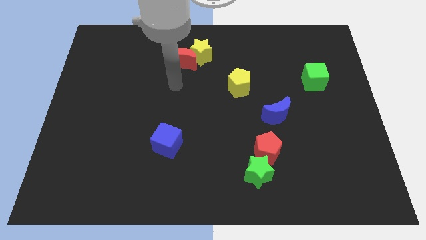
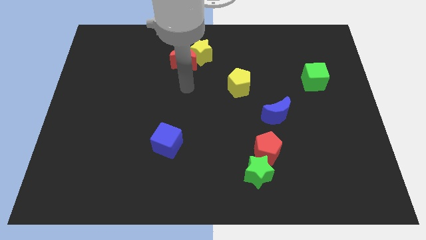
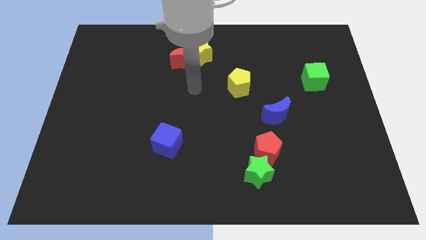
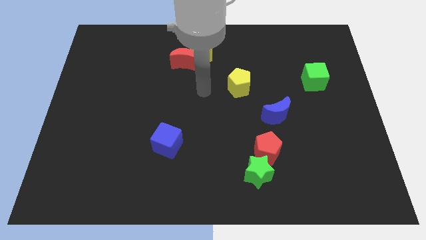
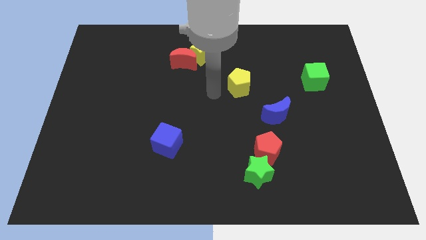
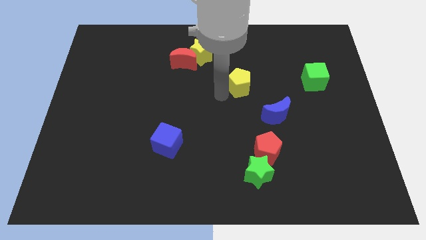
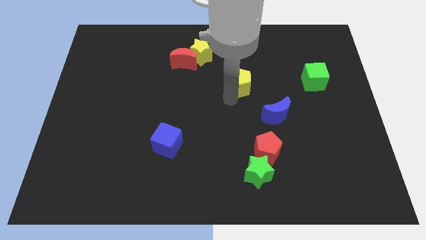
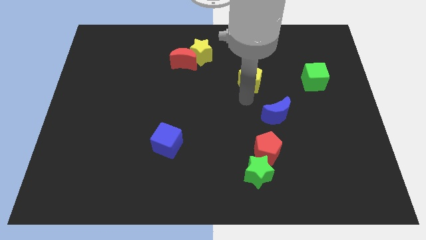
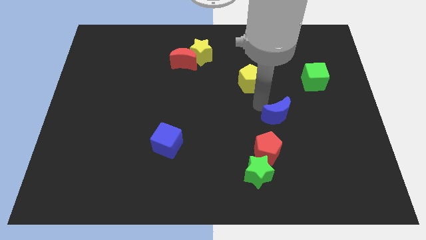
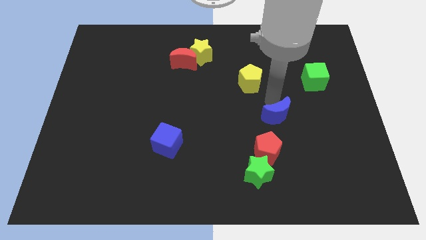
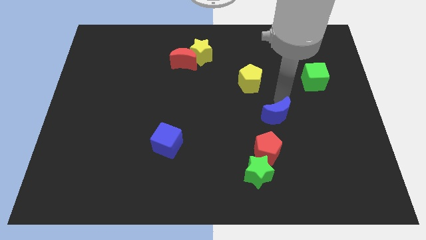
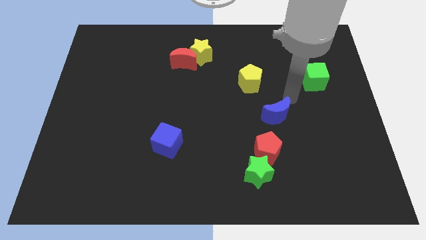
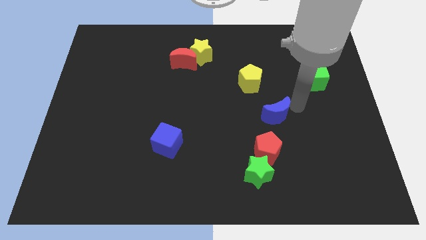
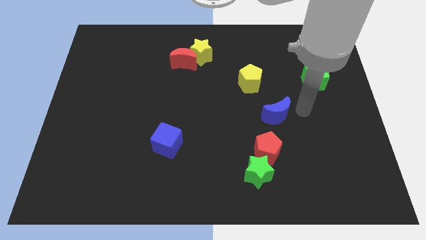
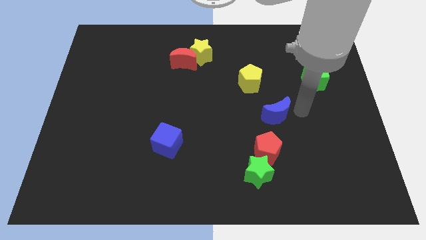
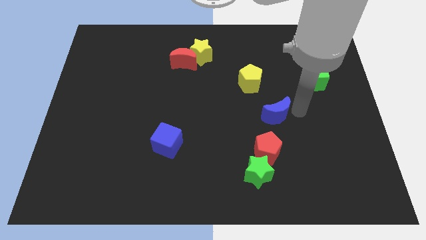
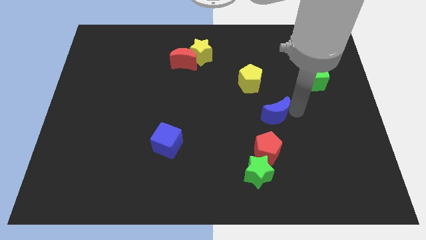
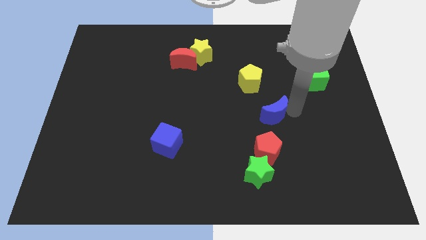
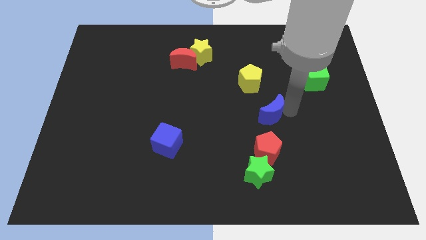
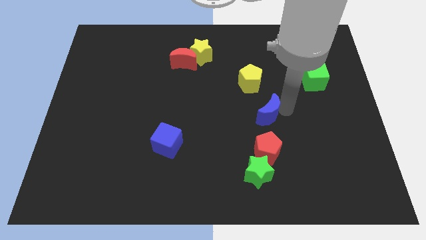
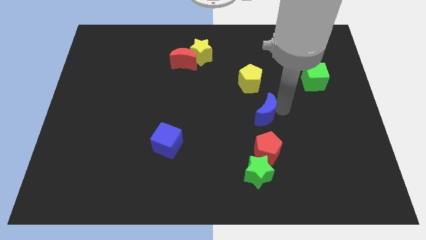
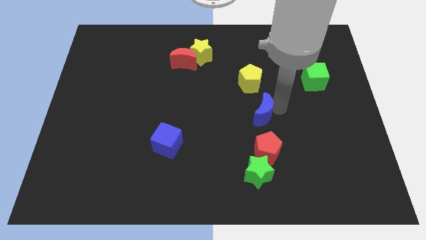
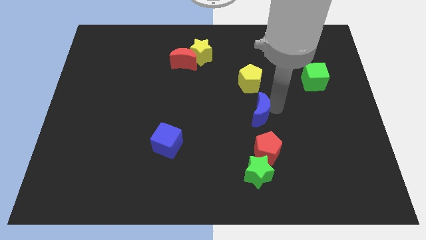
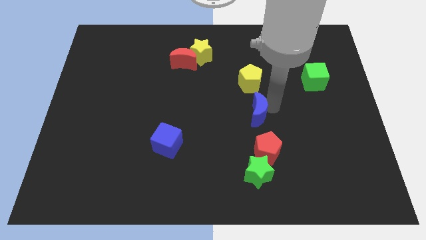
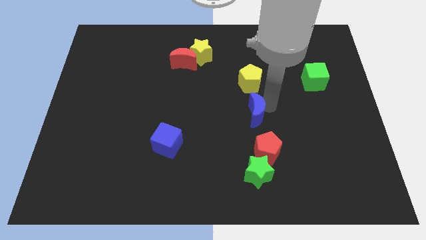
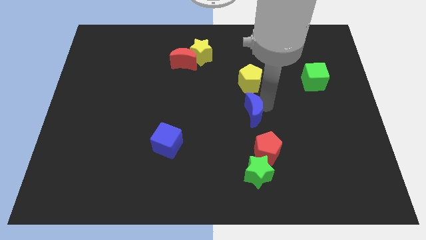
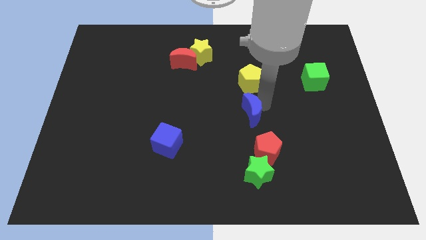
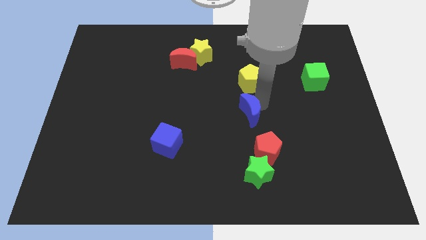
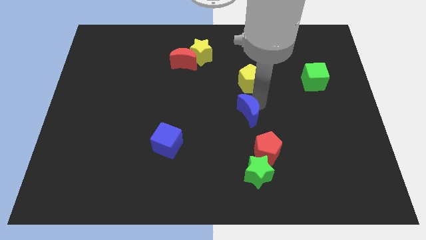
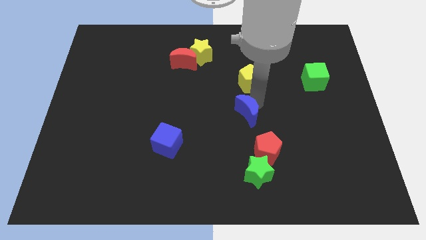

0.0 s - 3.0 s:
slide the blue moon a little to the left

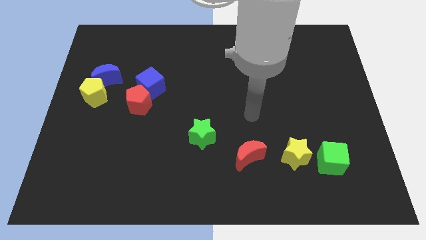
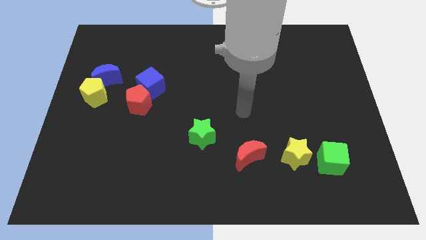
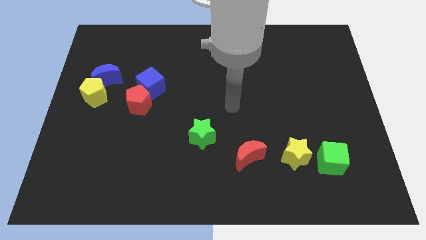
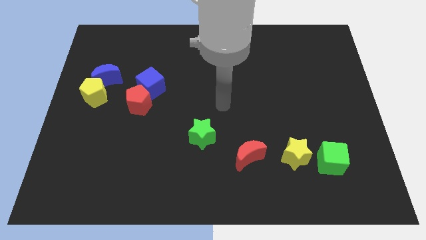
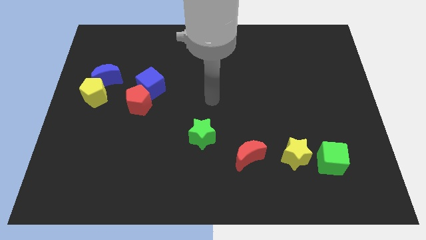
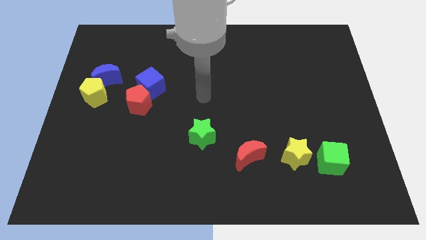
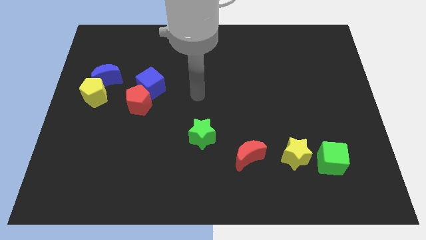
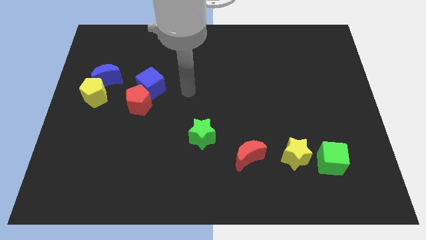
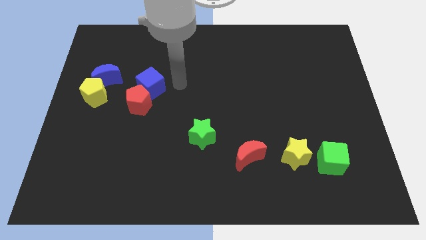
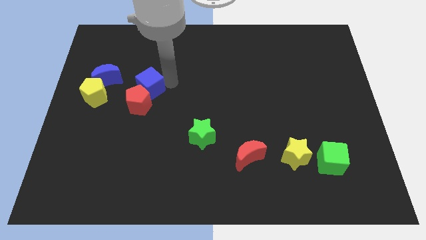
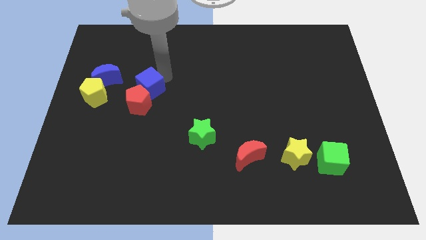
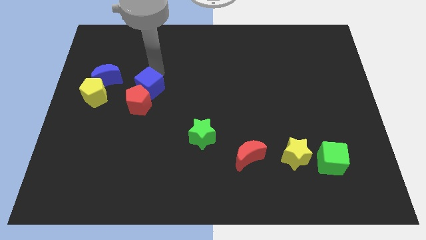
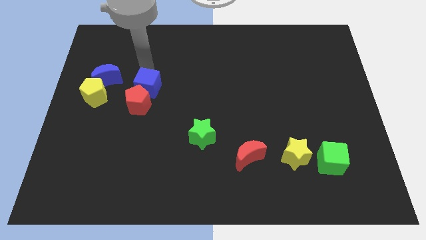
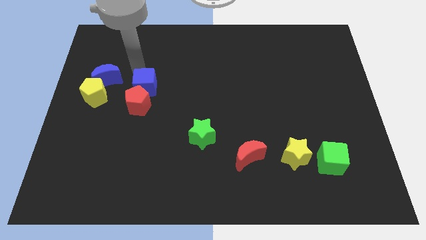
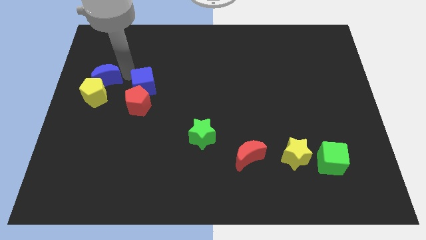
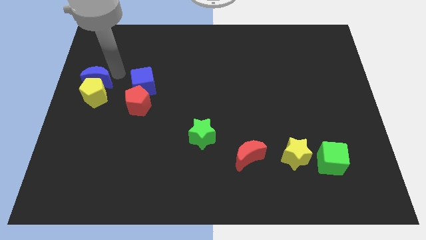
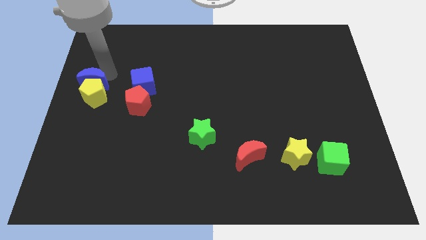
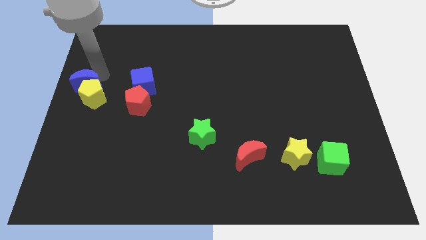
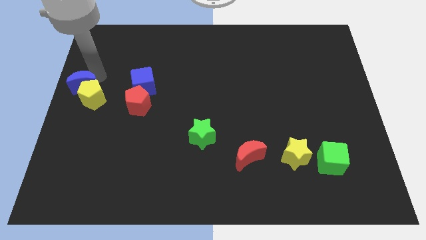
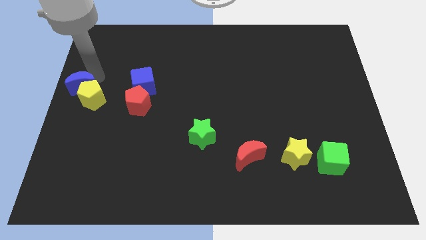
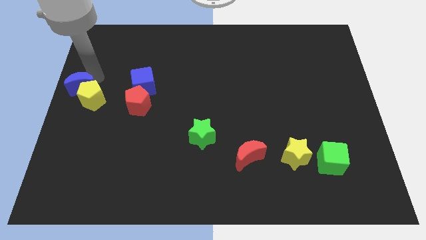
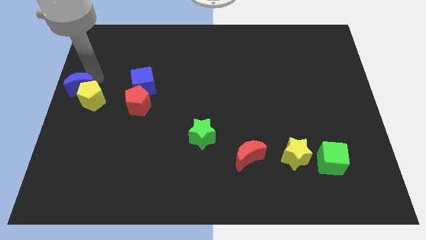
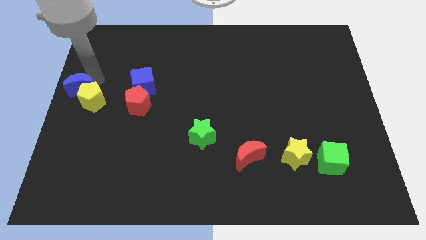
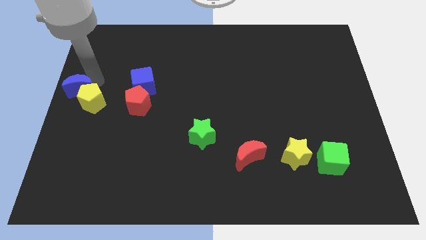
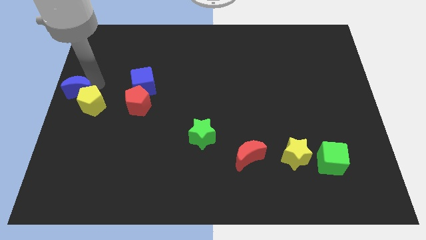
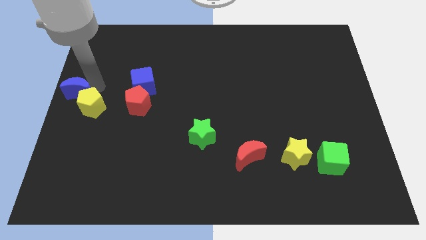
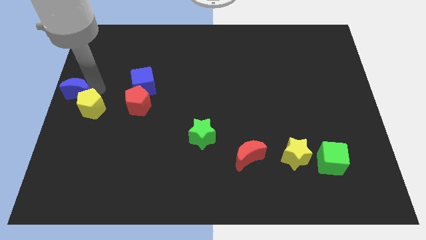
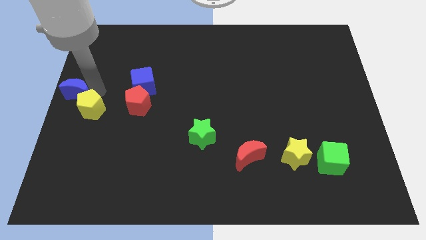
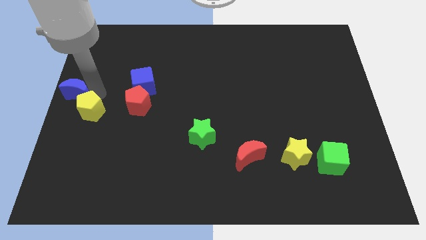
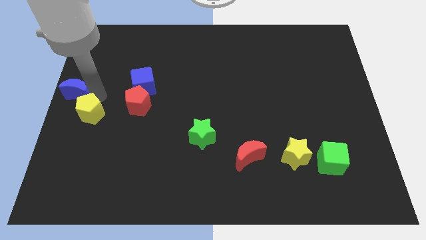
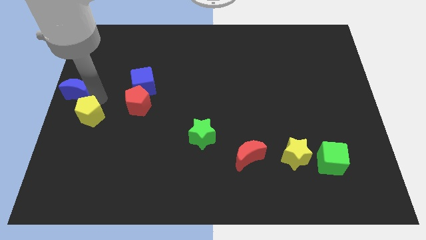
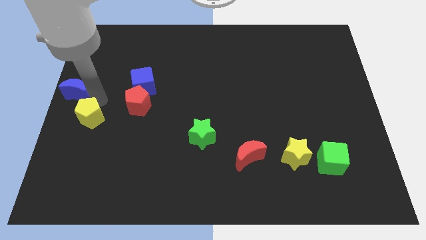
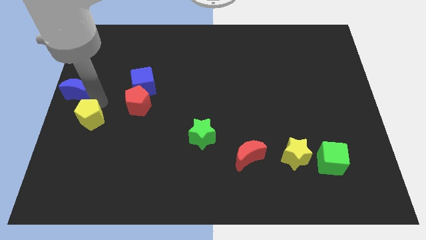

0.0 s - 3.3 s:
move the yellow pentagon somewhat down

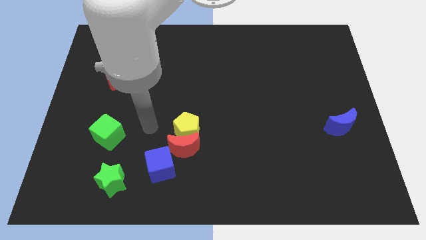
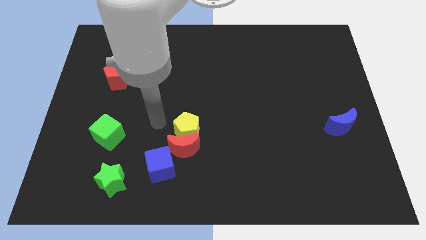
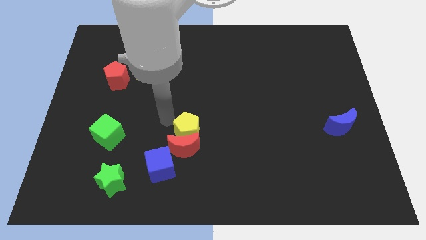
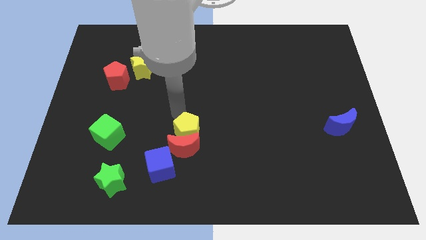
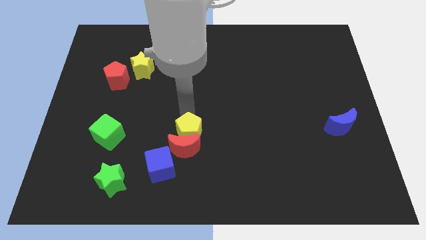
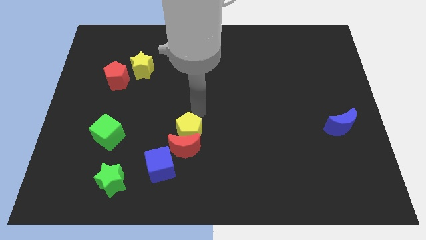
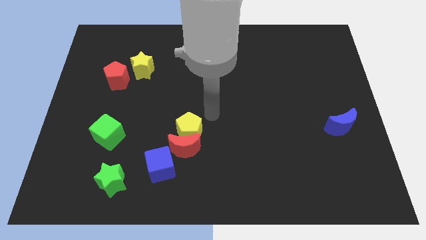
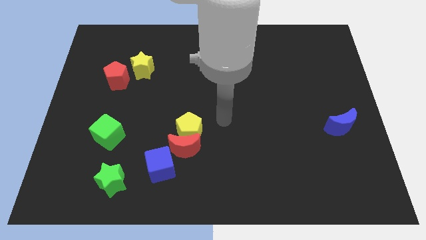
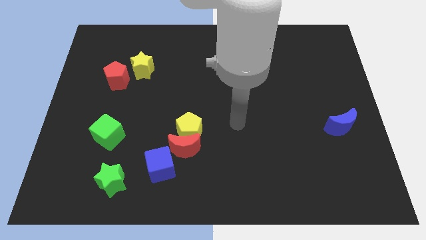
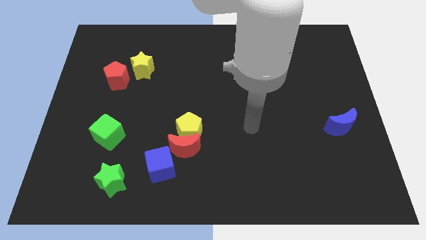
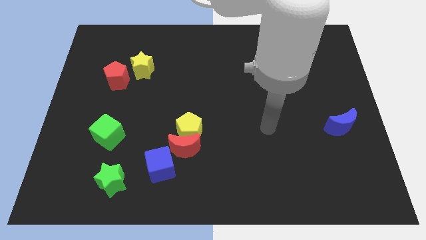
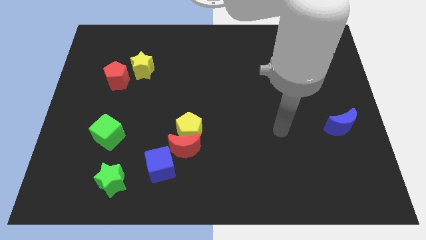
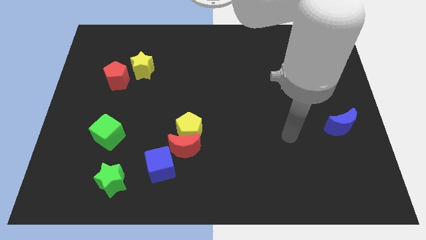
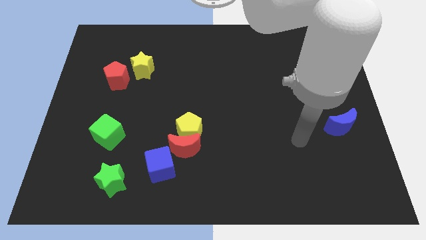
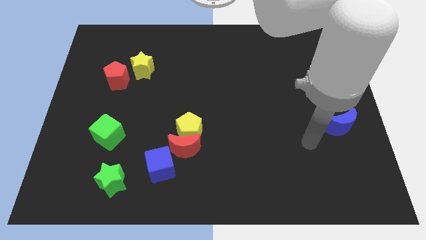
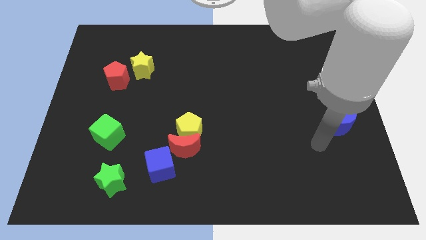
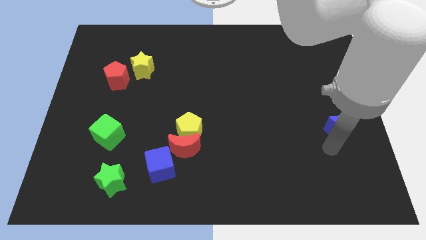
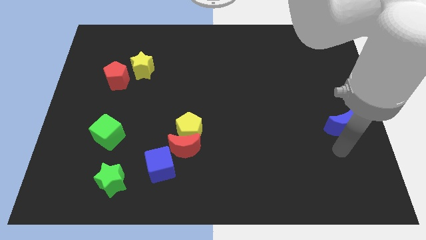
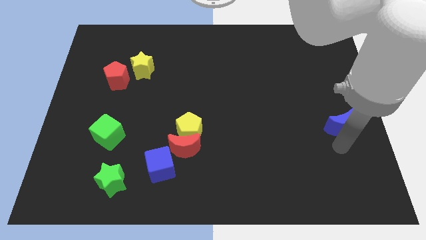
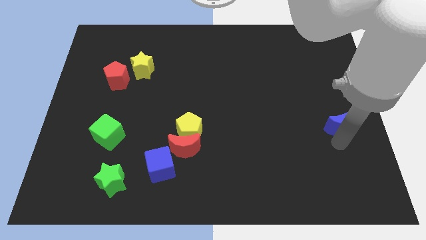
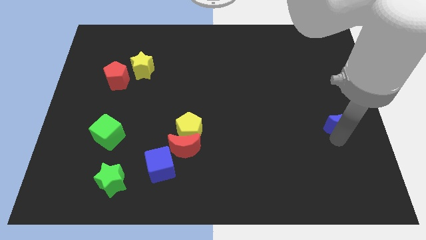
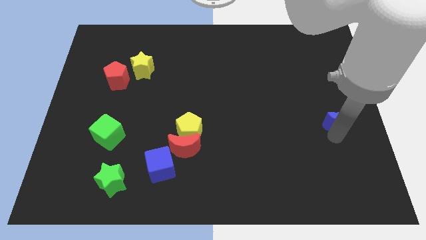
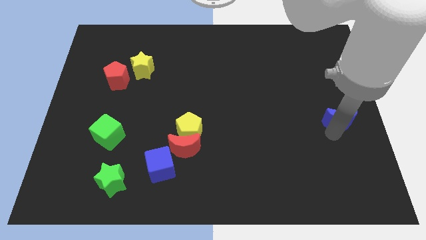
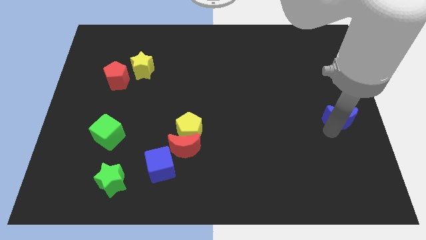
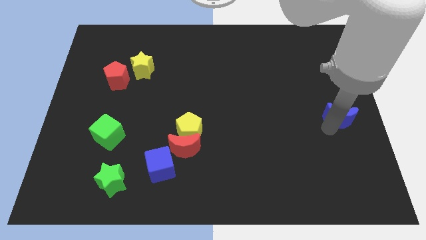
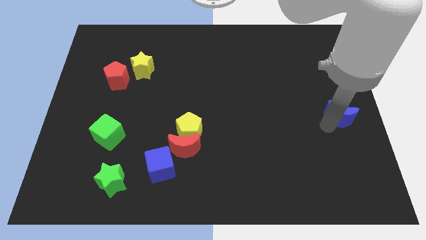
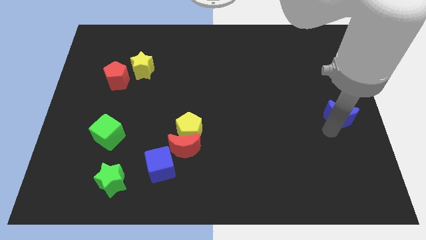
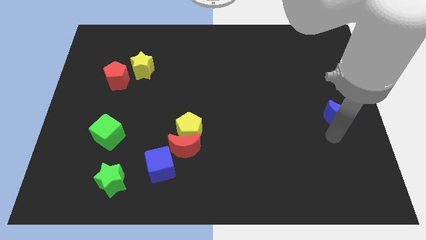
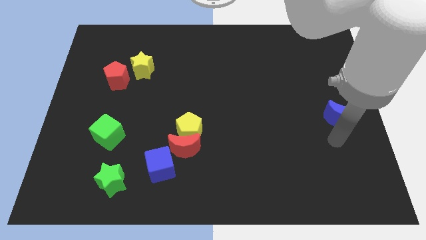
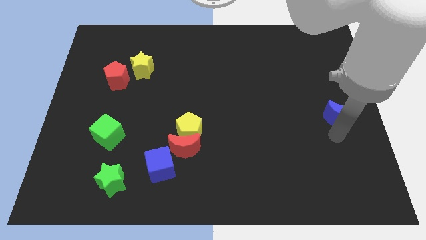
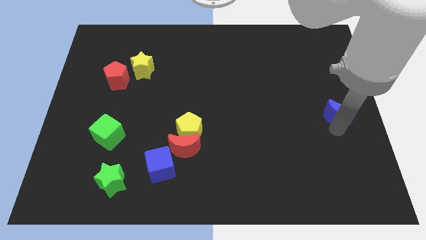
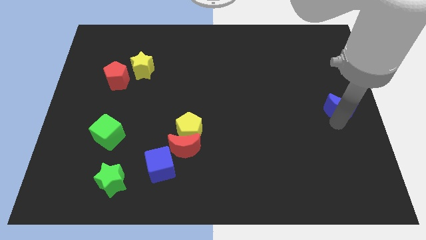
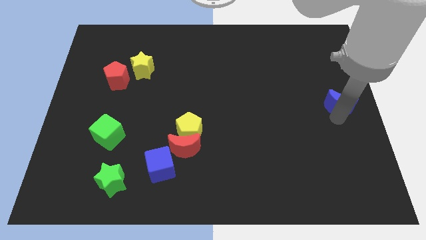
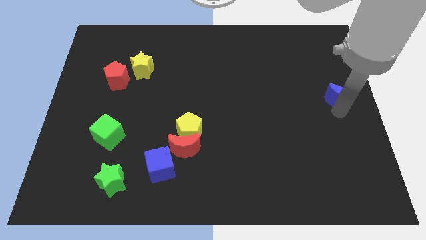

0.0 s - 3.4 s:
move the blue moon upwards a little
